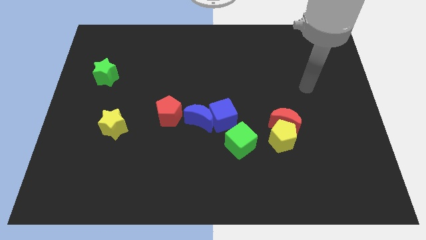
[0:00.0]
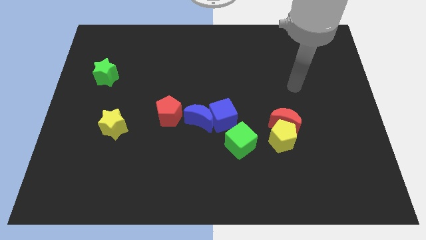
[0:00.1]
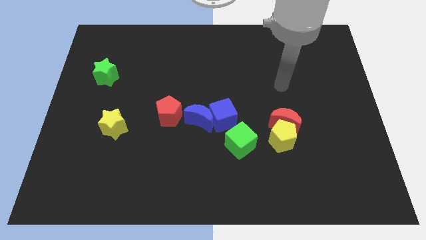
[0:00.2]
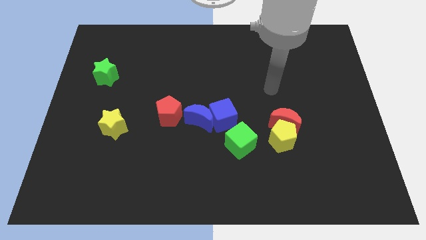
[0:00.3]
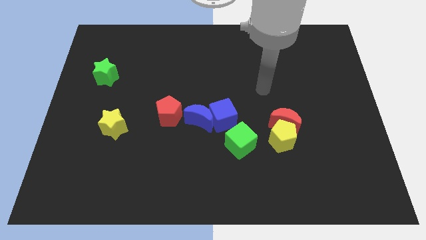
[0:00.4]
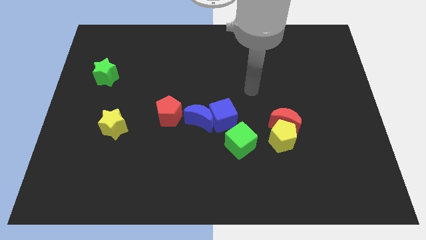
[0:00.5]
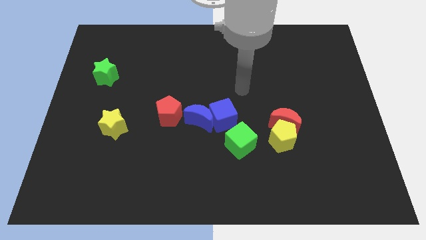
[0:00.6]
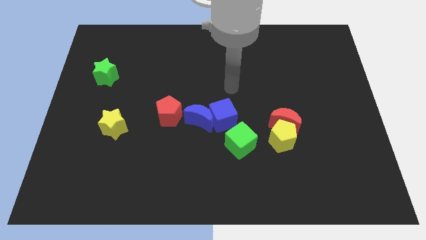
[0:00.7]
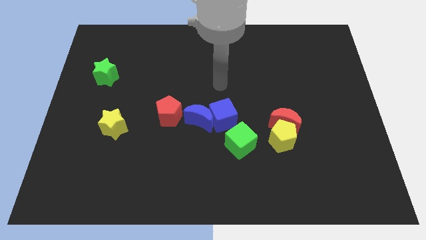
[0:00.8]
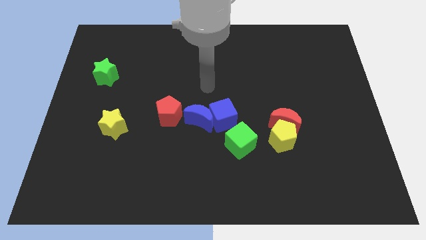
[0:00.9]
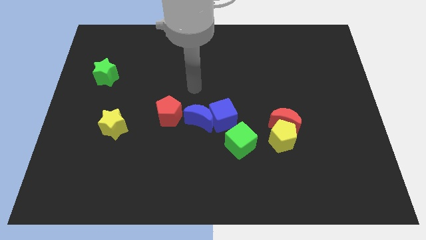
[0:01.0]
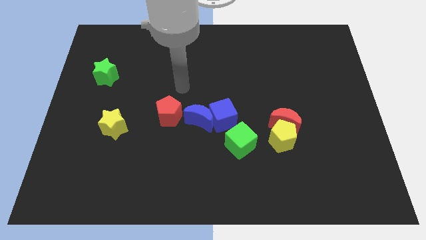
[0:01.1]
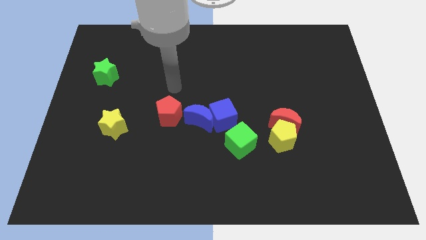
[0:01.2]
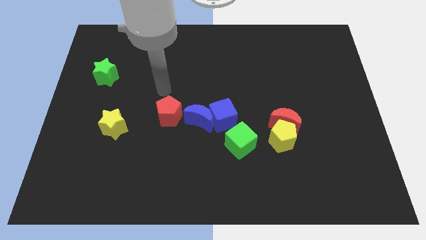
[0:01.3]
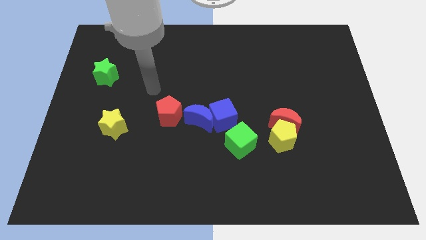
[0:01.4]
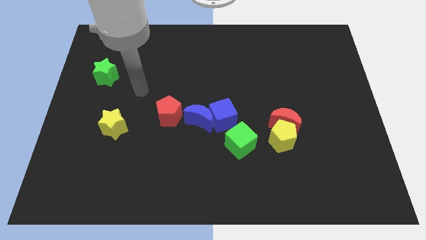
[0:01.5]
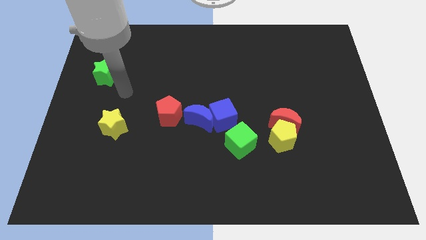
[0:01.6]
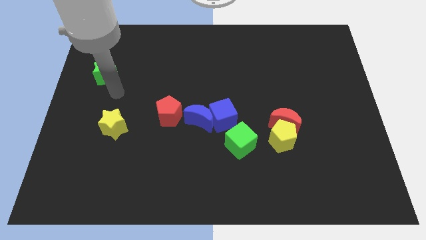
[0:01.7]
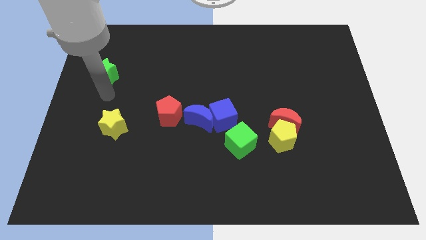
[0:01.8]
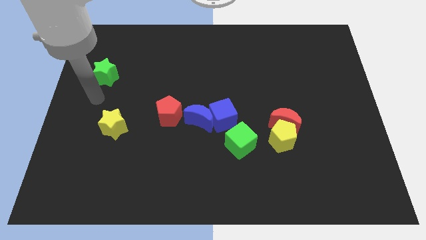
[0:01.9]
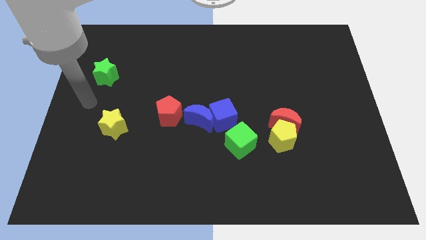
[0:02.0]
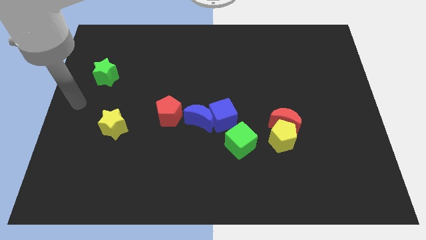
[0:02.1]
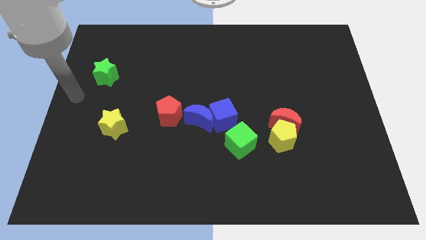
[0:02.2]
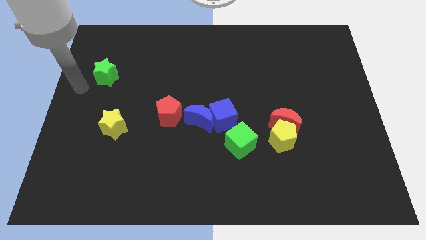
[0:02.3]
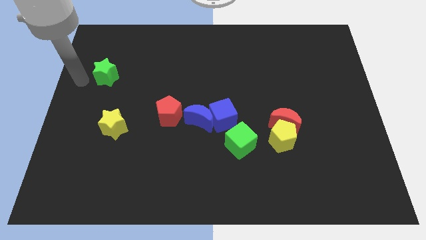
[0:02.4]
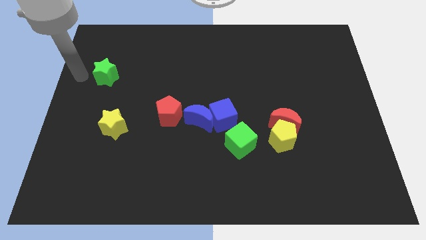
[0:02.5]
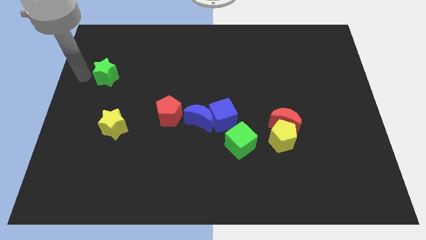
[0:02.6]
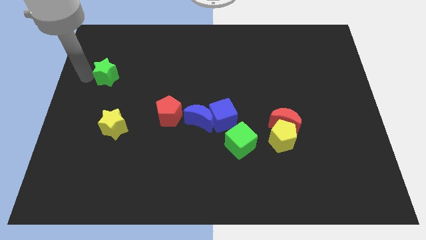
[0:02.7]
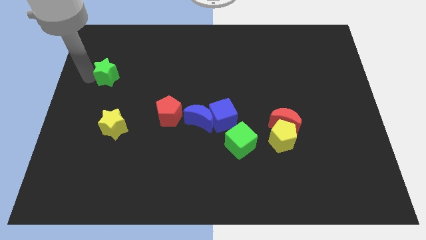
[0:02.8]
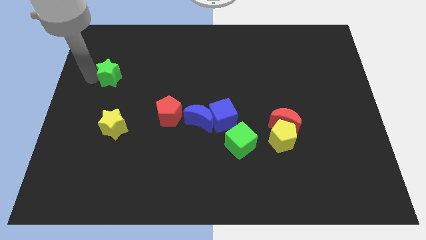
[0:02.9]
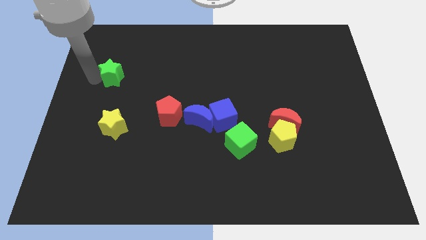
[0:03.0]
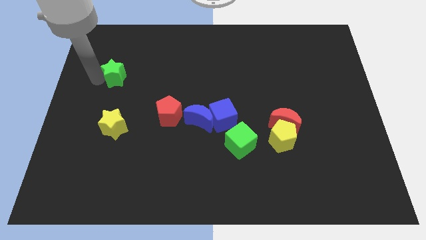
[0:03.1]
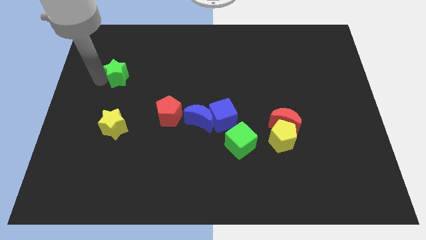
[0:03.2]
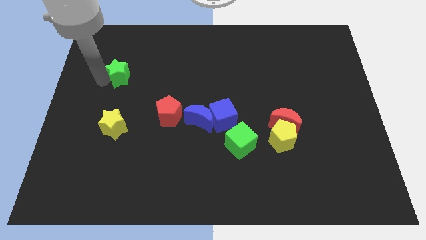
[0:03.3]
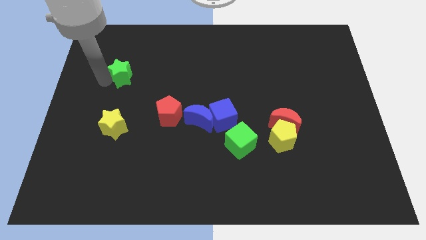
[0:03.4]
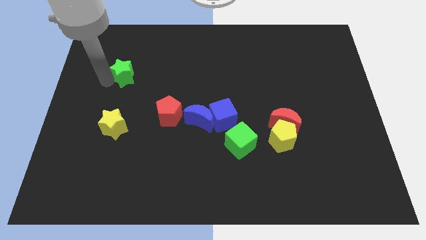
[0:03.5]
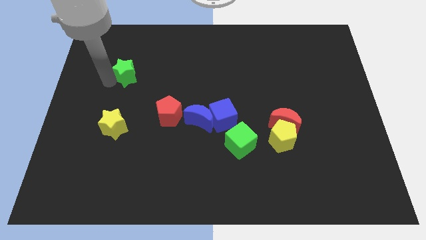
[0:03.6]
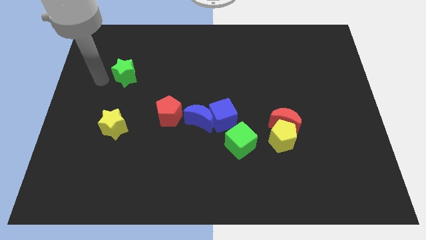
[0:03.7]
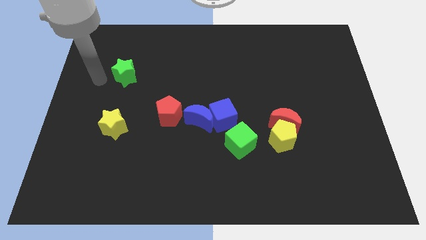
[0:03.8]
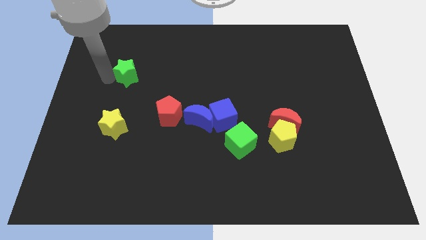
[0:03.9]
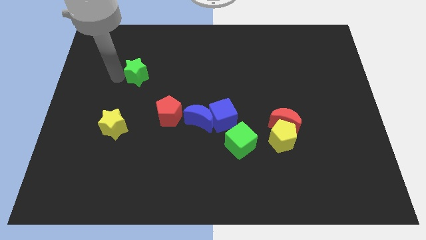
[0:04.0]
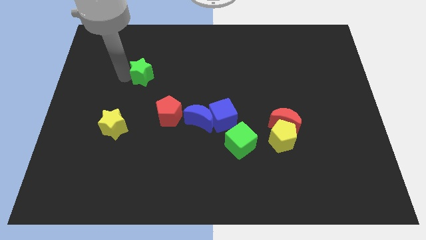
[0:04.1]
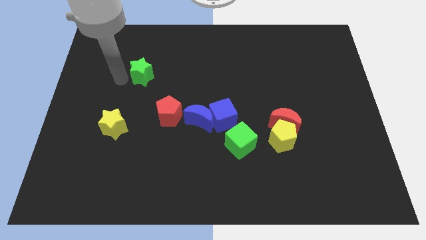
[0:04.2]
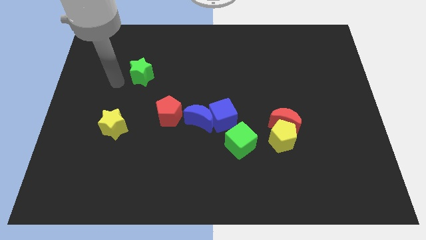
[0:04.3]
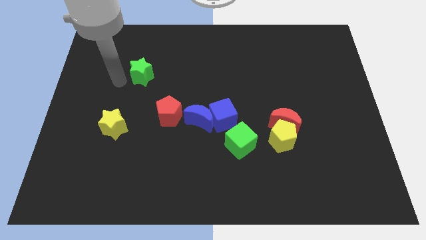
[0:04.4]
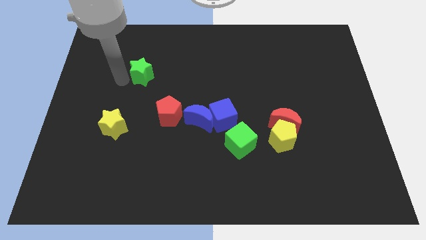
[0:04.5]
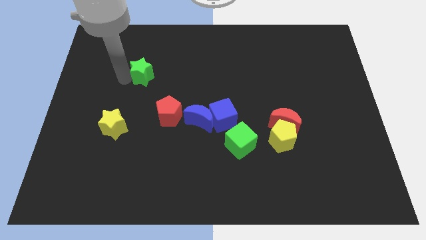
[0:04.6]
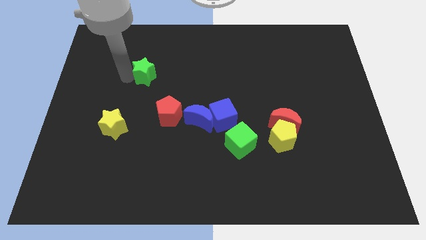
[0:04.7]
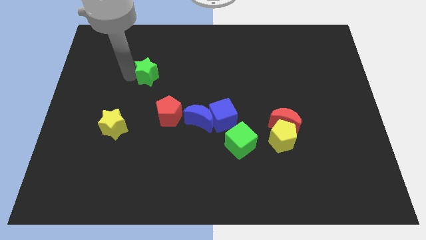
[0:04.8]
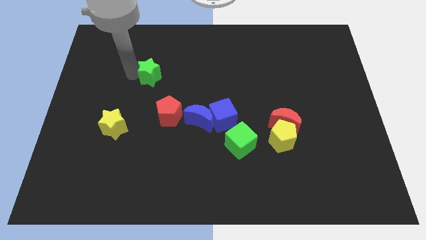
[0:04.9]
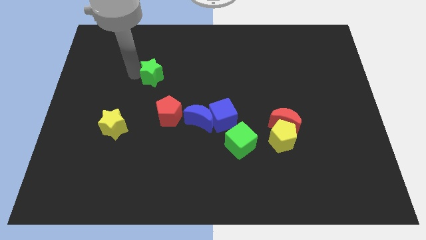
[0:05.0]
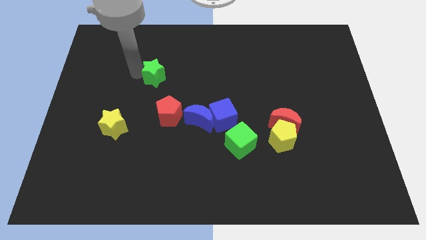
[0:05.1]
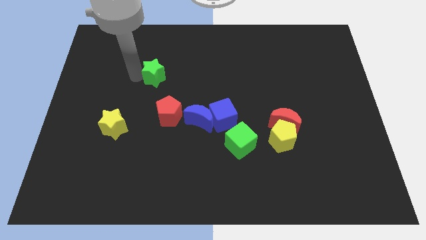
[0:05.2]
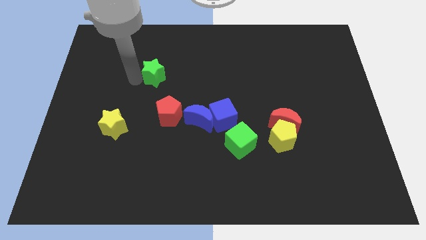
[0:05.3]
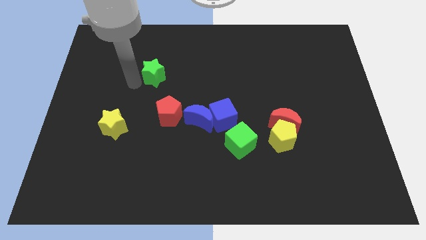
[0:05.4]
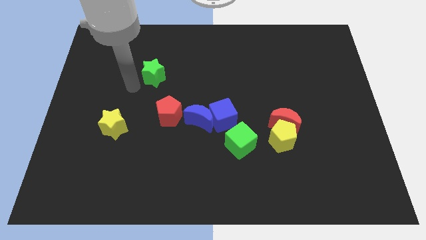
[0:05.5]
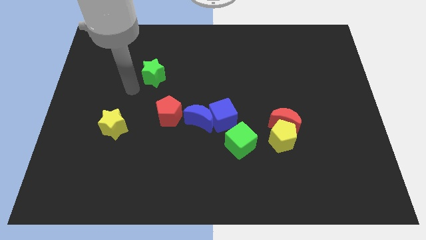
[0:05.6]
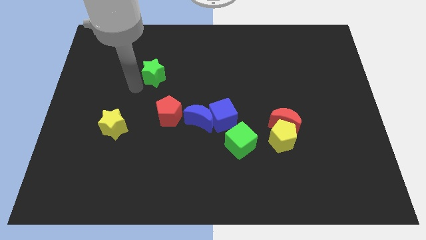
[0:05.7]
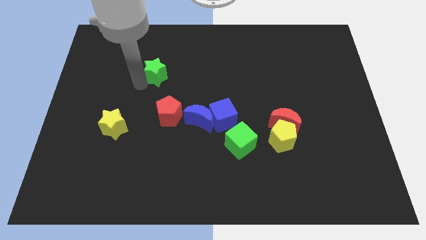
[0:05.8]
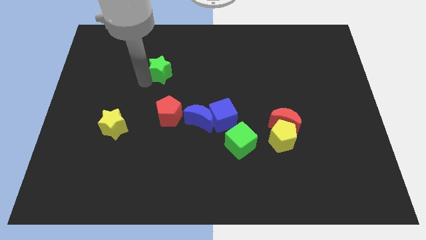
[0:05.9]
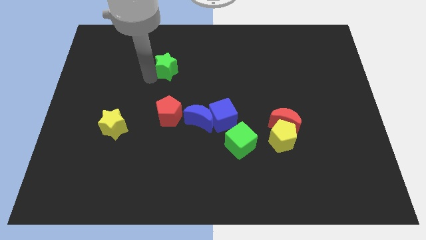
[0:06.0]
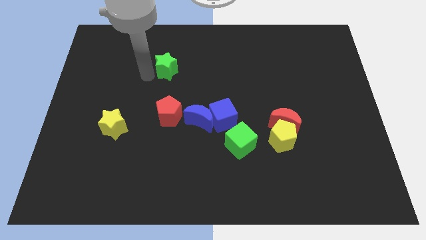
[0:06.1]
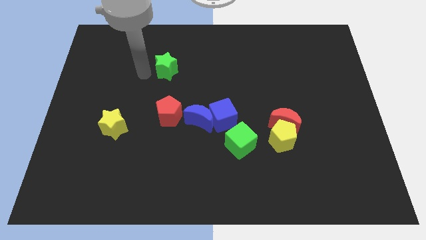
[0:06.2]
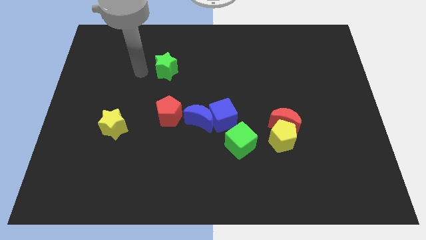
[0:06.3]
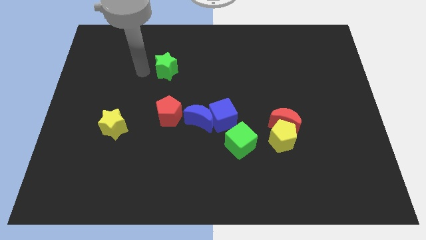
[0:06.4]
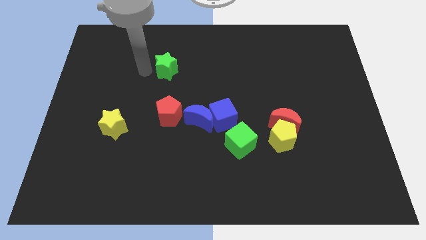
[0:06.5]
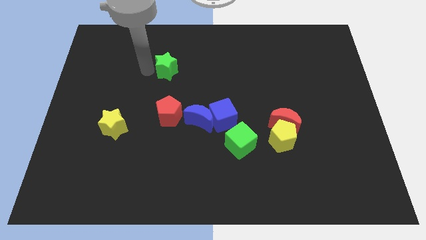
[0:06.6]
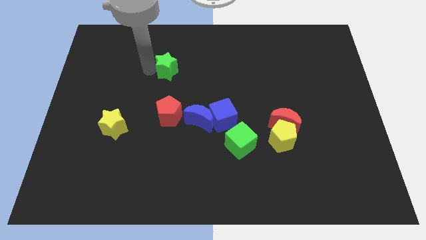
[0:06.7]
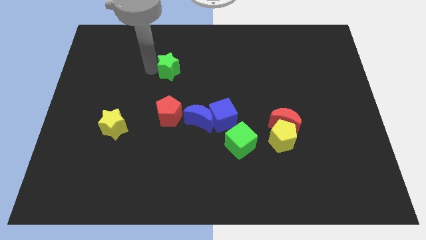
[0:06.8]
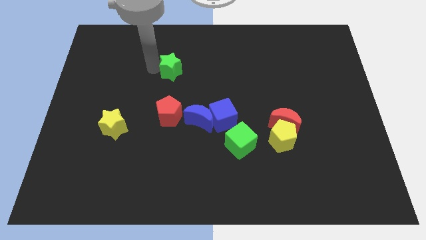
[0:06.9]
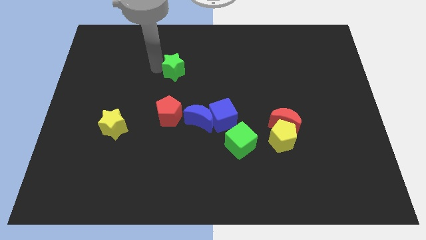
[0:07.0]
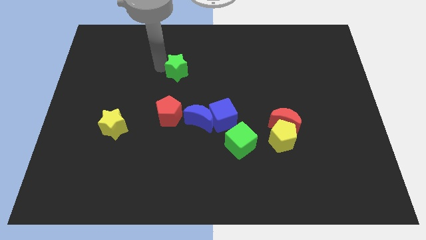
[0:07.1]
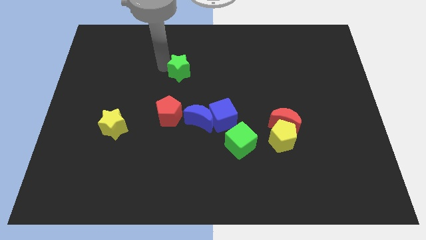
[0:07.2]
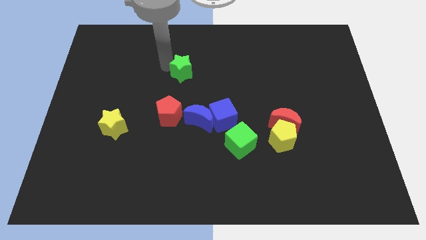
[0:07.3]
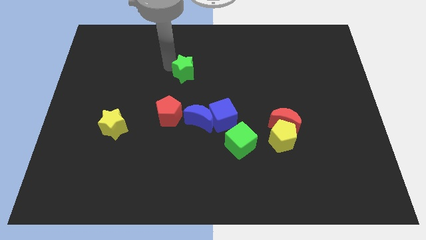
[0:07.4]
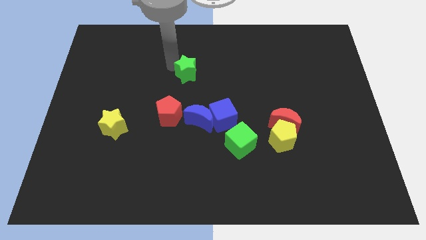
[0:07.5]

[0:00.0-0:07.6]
push the green star to the right

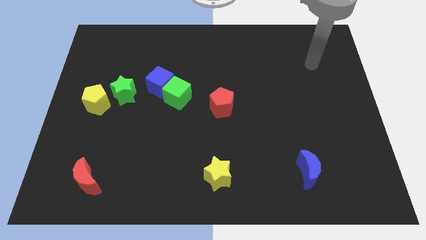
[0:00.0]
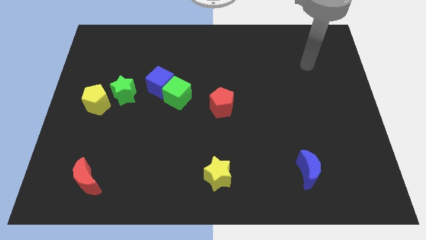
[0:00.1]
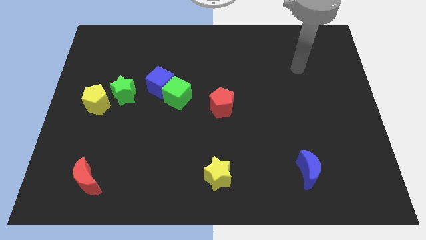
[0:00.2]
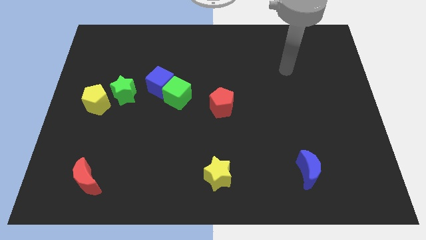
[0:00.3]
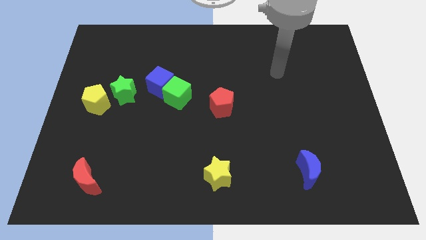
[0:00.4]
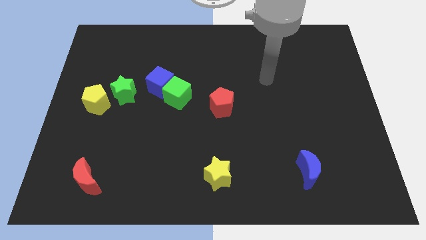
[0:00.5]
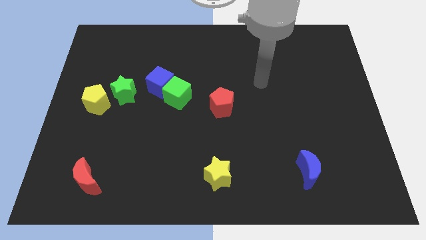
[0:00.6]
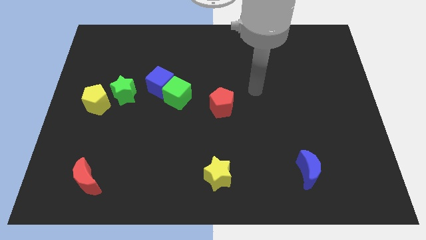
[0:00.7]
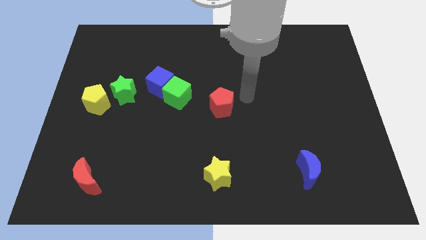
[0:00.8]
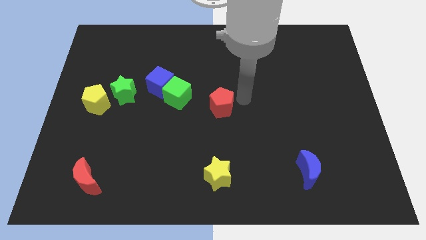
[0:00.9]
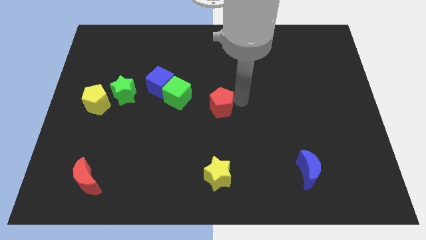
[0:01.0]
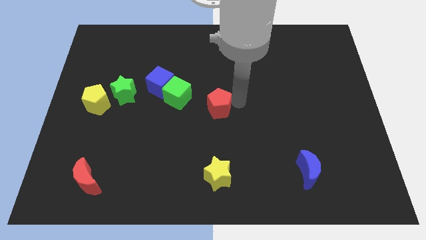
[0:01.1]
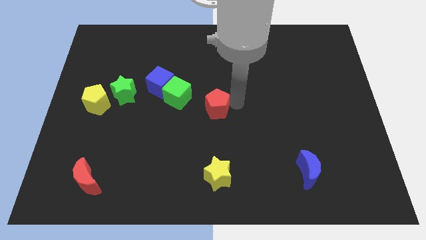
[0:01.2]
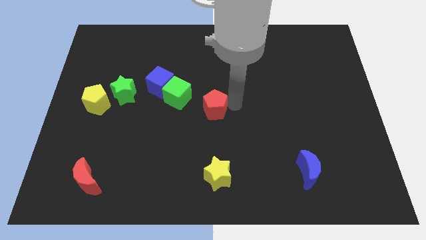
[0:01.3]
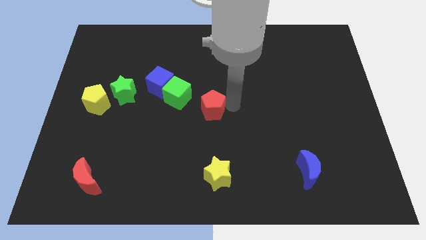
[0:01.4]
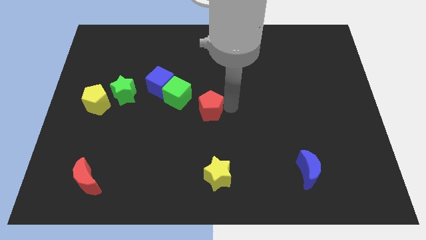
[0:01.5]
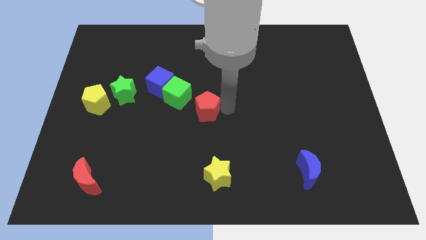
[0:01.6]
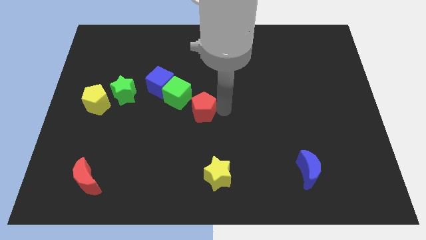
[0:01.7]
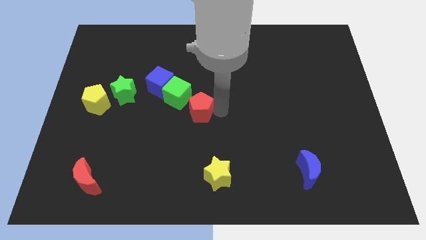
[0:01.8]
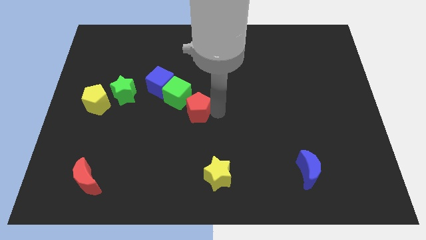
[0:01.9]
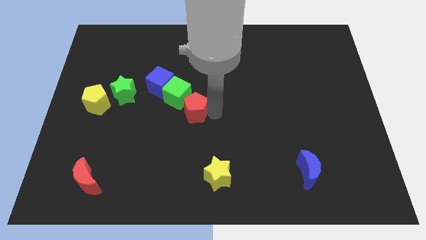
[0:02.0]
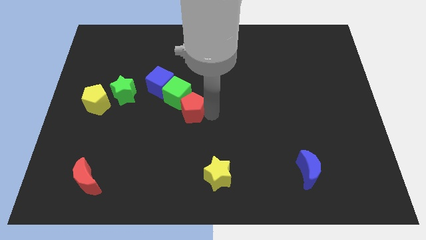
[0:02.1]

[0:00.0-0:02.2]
move the red pentagon slightly left
